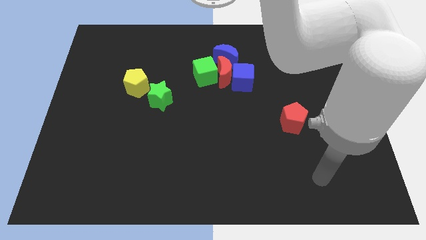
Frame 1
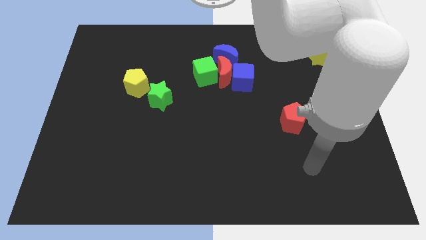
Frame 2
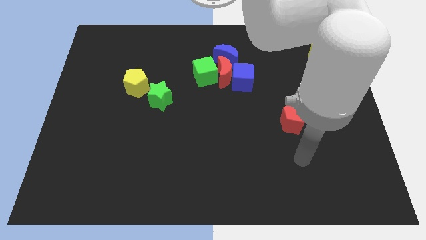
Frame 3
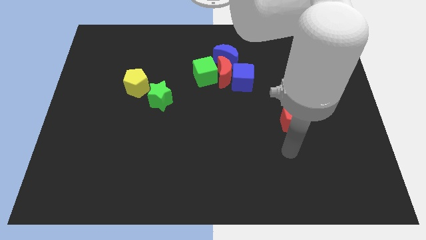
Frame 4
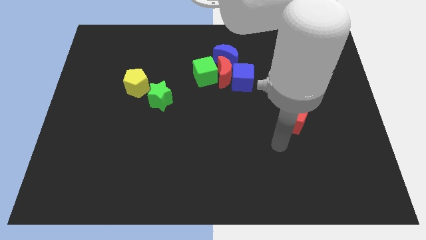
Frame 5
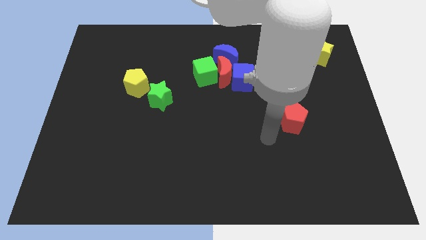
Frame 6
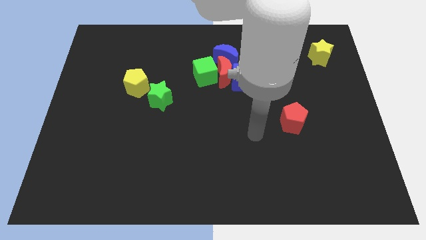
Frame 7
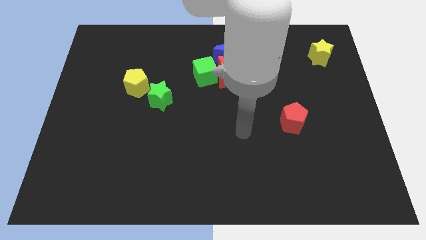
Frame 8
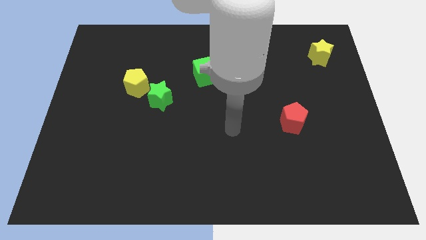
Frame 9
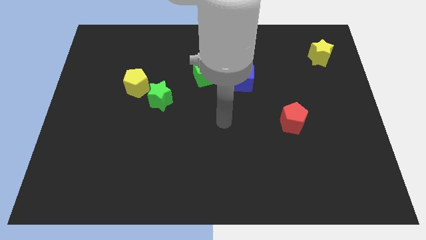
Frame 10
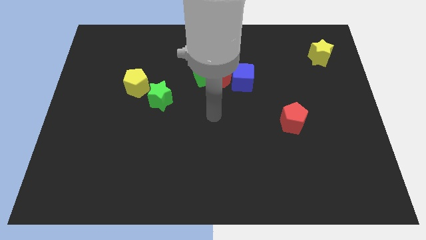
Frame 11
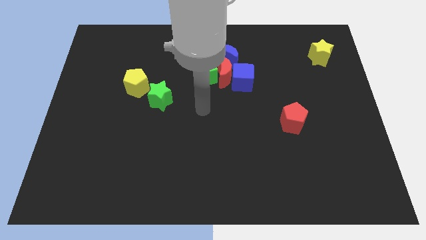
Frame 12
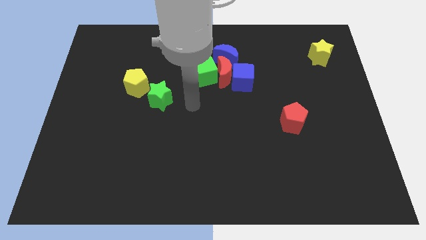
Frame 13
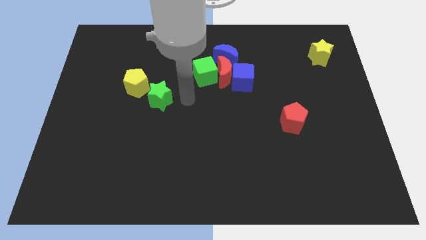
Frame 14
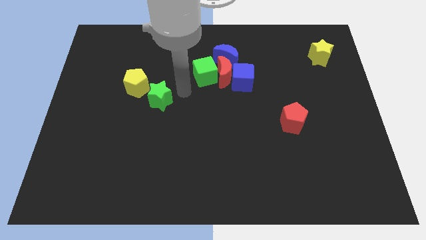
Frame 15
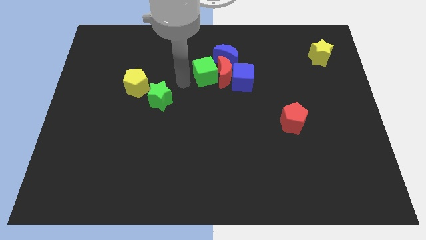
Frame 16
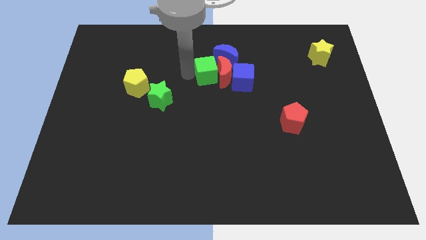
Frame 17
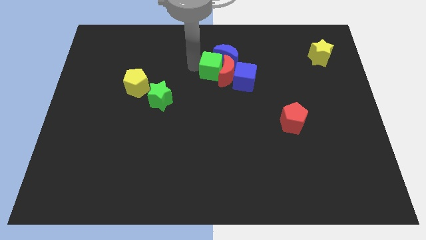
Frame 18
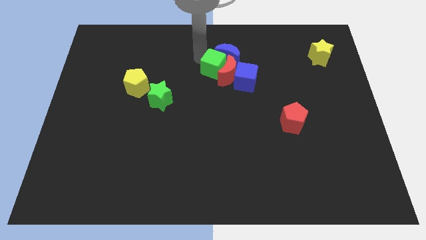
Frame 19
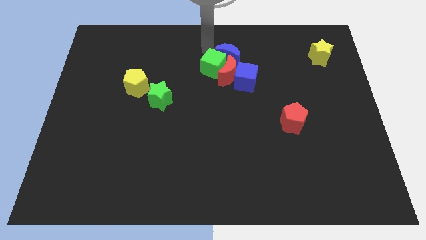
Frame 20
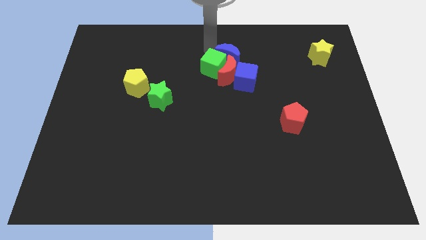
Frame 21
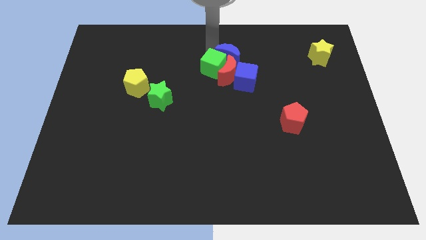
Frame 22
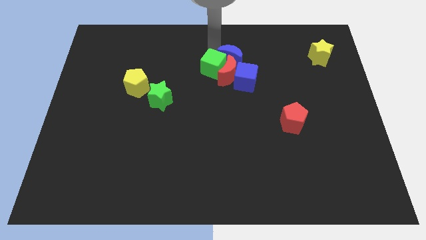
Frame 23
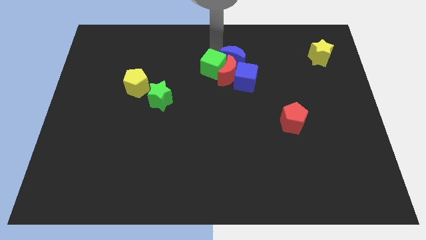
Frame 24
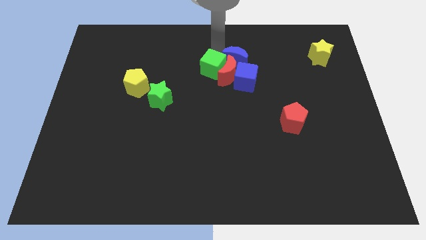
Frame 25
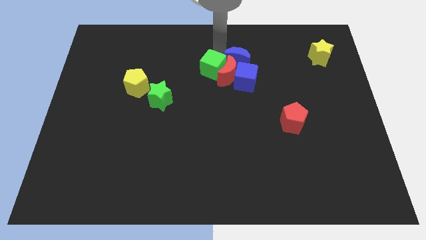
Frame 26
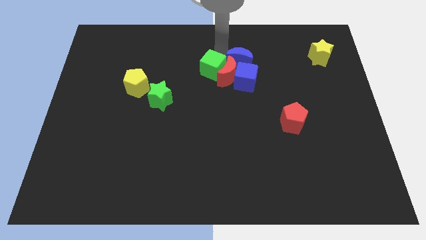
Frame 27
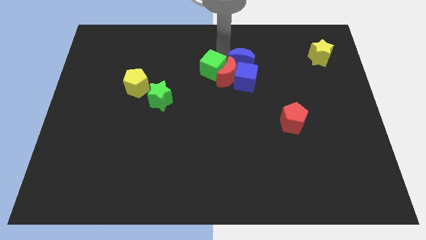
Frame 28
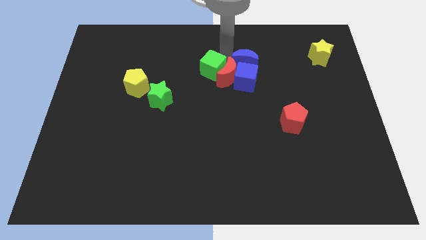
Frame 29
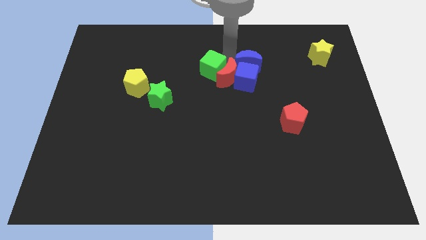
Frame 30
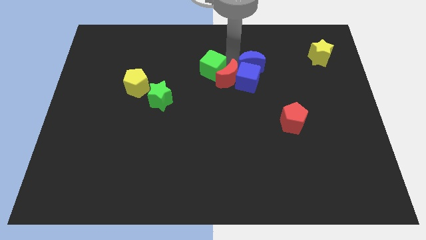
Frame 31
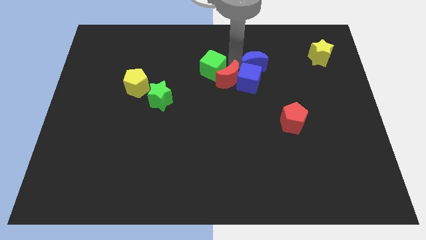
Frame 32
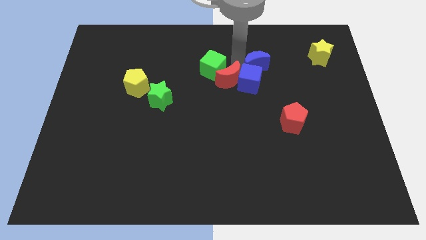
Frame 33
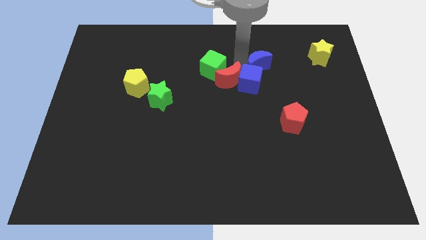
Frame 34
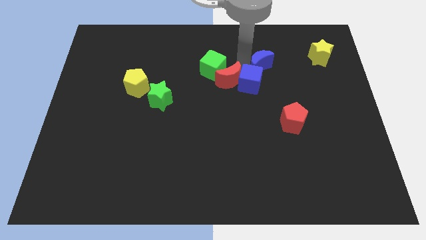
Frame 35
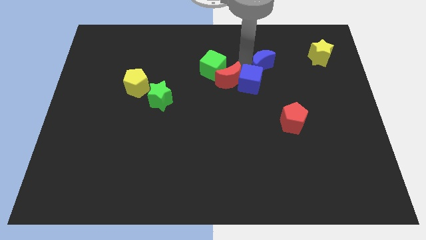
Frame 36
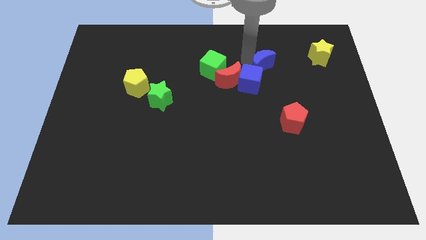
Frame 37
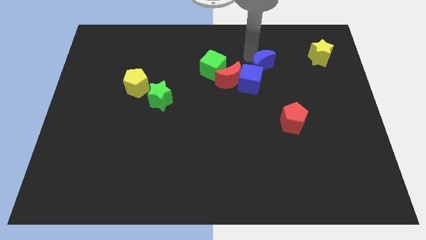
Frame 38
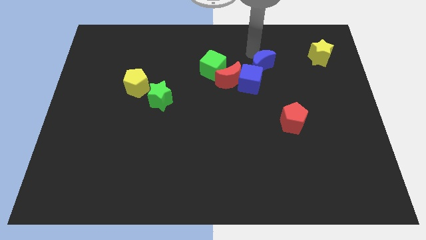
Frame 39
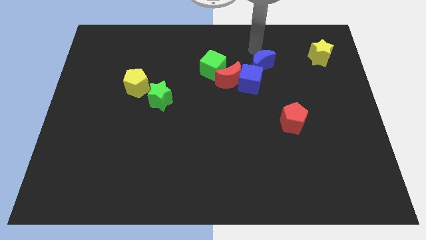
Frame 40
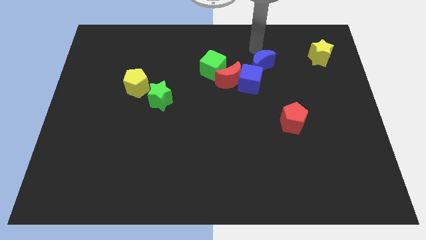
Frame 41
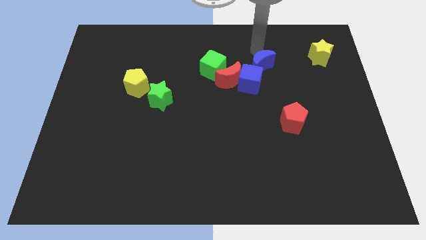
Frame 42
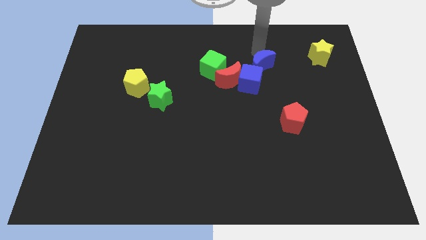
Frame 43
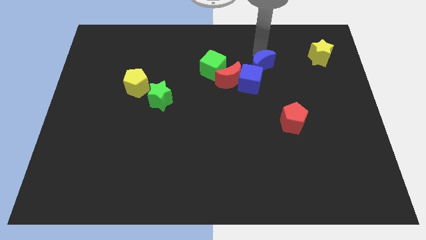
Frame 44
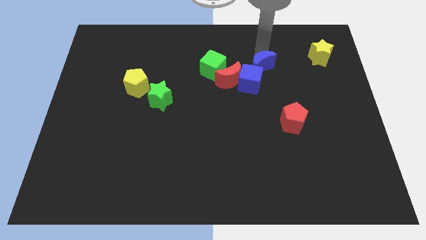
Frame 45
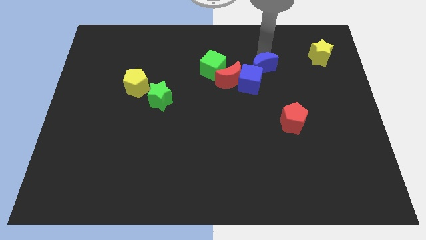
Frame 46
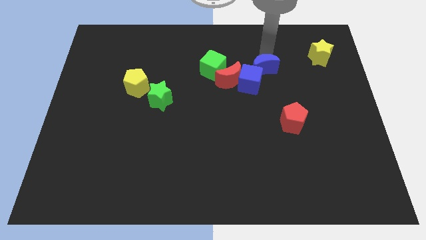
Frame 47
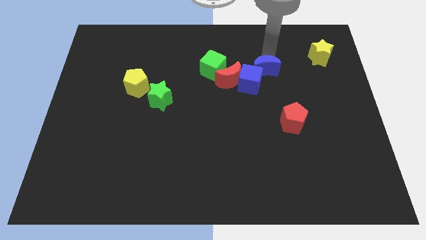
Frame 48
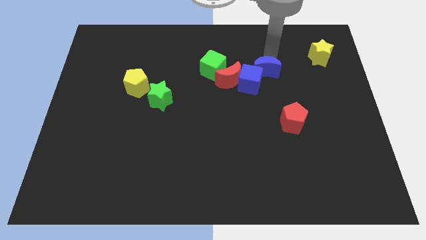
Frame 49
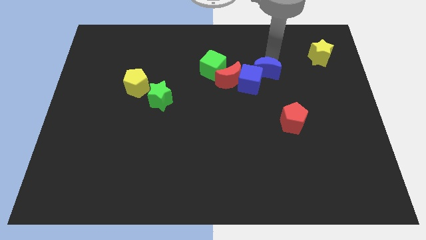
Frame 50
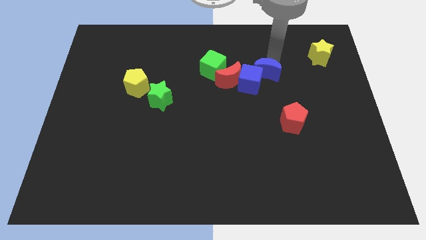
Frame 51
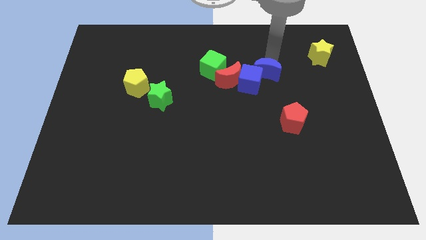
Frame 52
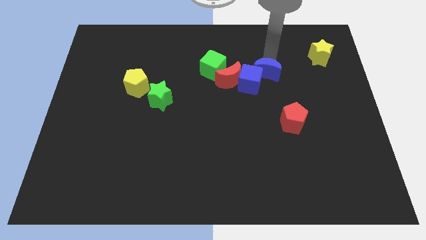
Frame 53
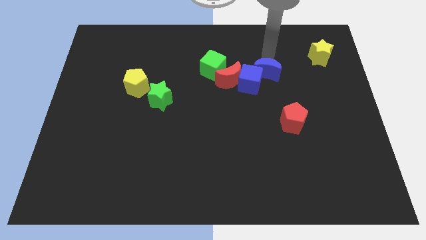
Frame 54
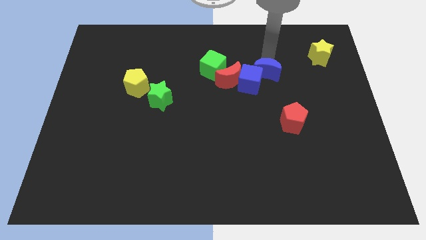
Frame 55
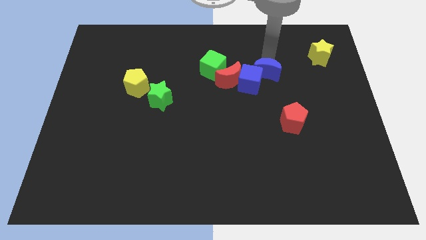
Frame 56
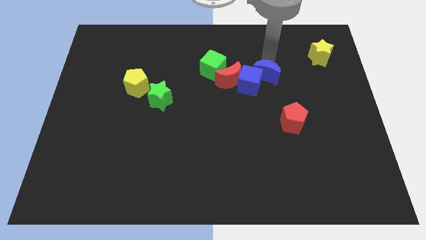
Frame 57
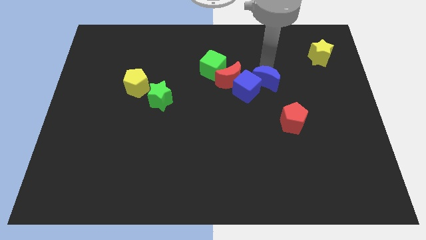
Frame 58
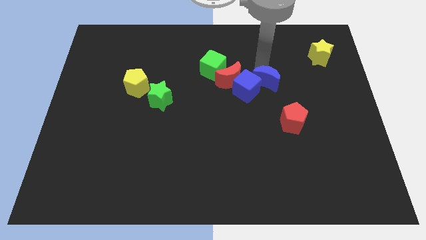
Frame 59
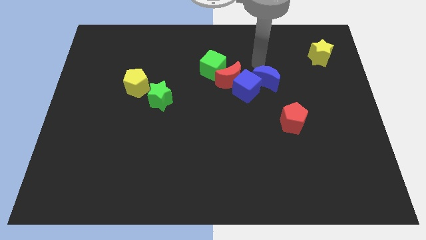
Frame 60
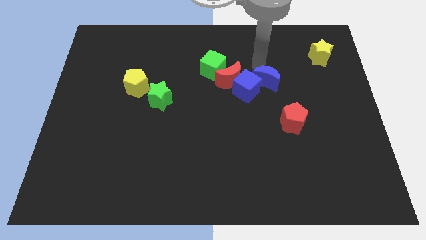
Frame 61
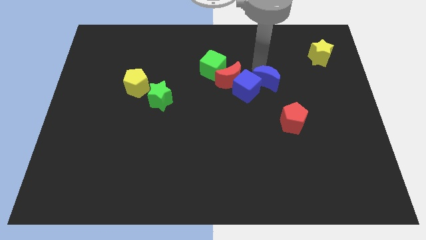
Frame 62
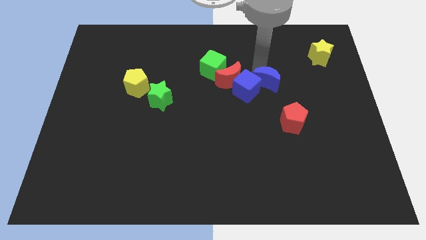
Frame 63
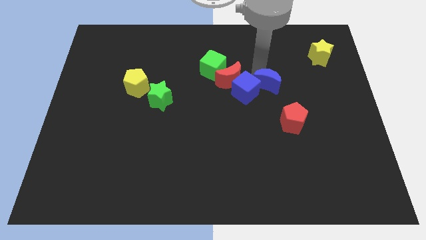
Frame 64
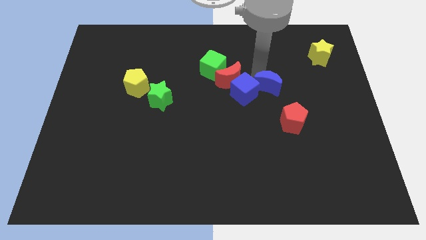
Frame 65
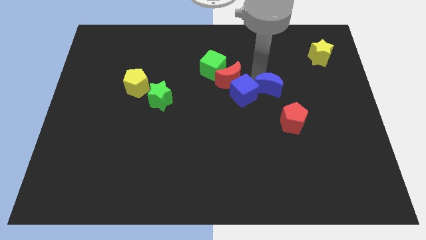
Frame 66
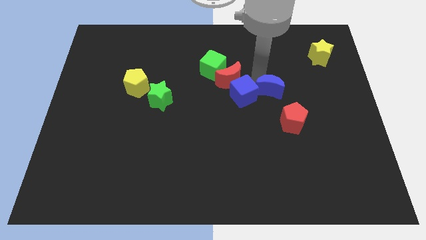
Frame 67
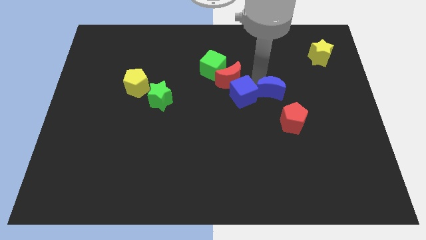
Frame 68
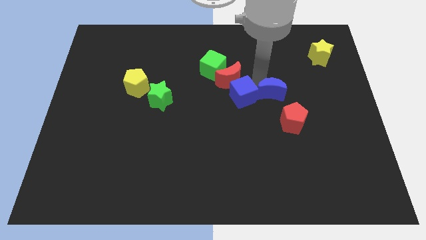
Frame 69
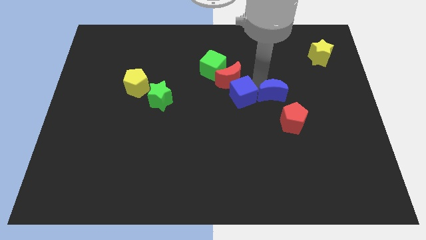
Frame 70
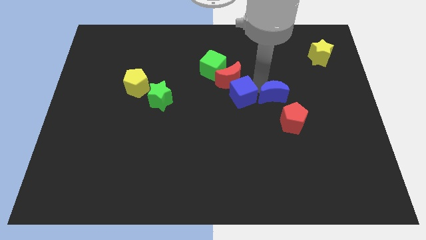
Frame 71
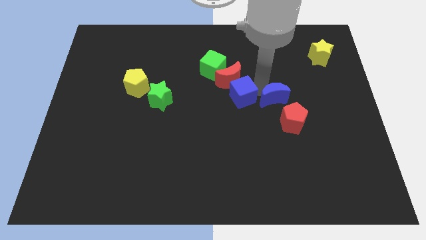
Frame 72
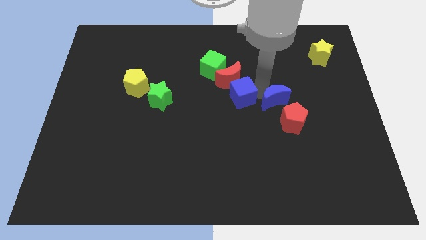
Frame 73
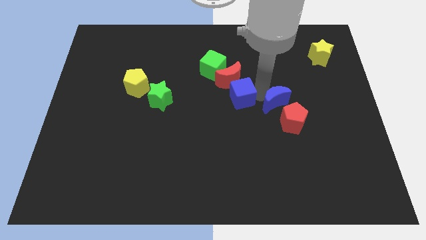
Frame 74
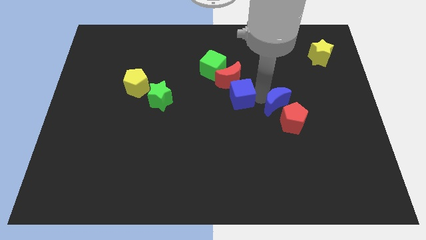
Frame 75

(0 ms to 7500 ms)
slide the blue moon next to the red pentagon
